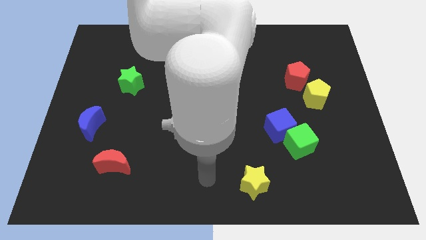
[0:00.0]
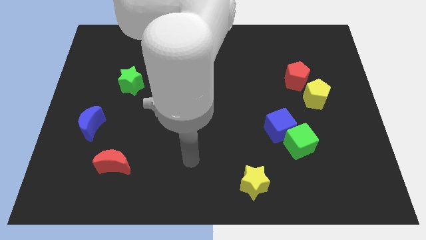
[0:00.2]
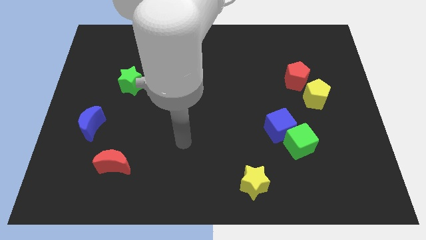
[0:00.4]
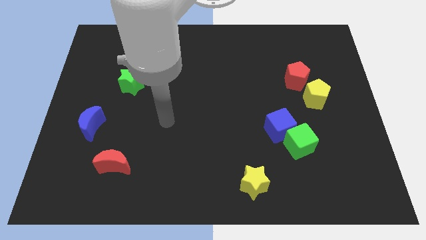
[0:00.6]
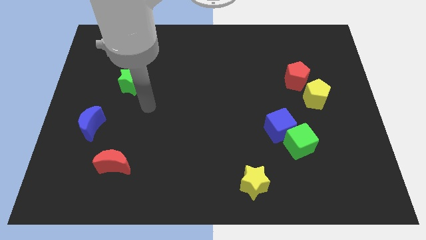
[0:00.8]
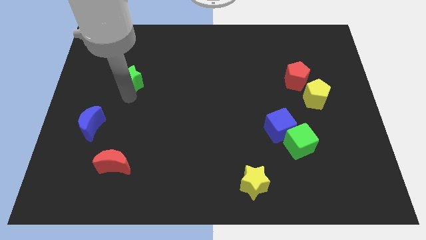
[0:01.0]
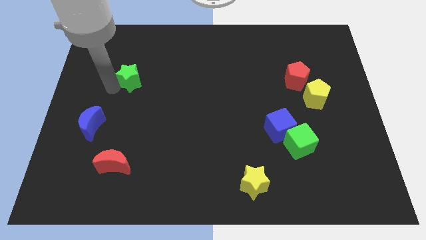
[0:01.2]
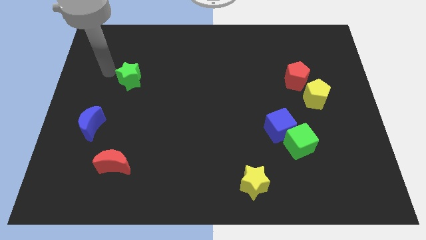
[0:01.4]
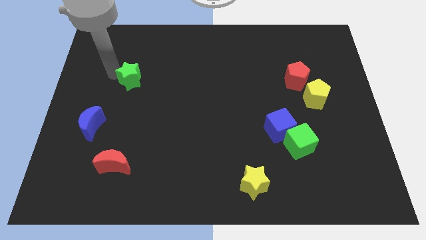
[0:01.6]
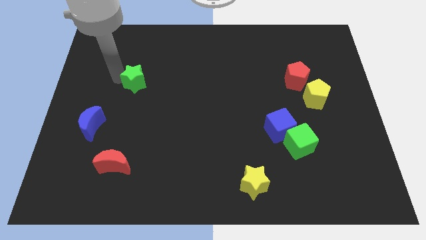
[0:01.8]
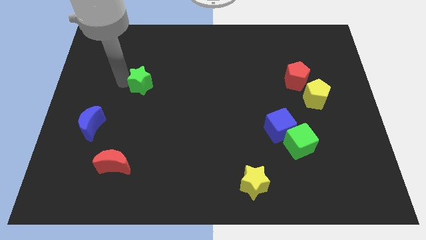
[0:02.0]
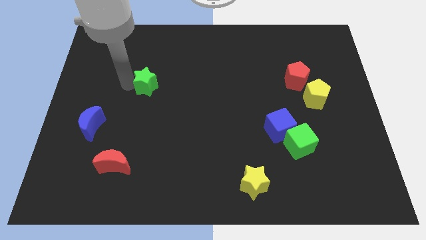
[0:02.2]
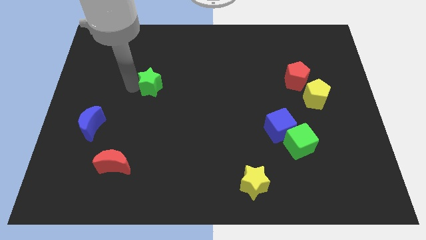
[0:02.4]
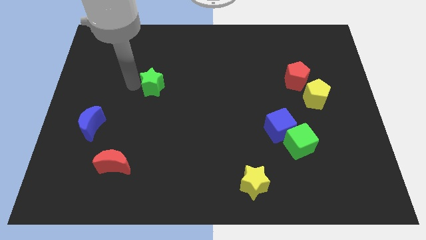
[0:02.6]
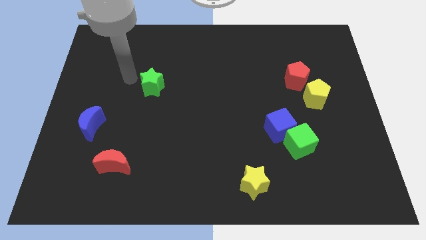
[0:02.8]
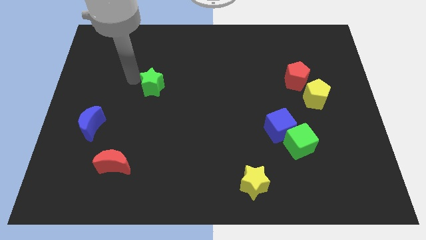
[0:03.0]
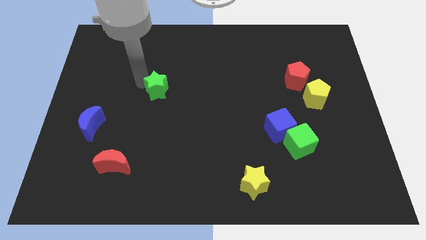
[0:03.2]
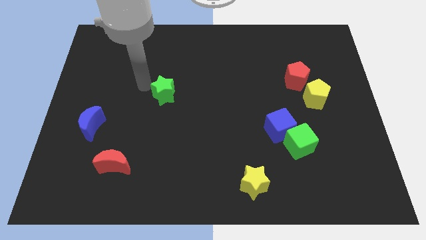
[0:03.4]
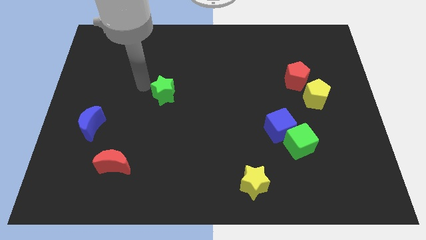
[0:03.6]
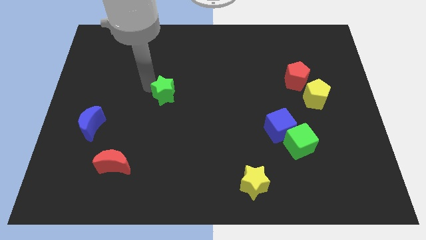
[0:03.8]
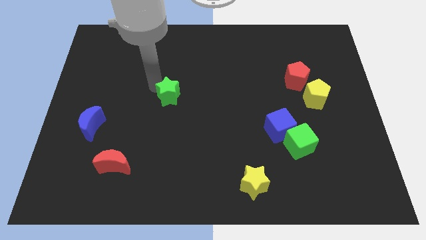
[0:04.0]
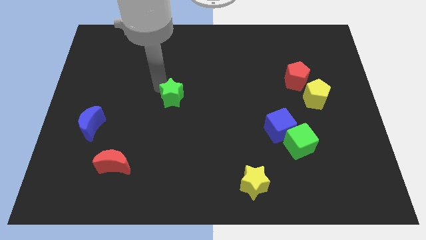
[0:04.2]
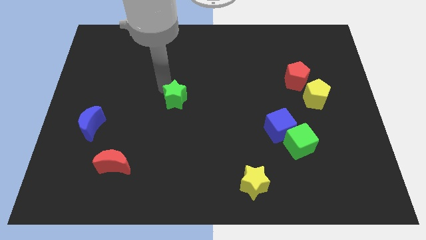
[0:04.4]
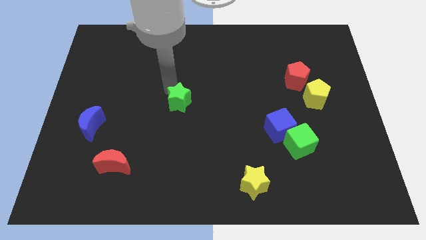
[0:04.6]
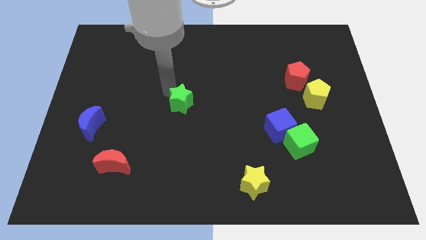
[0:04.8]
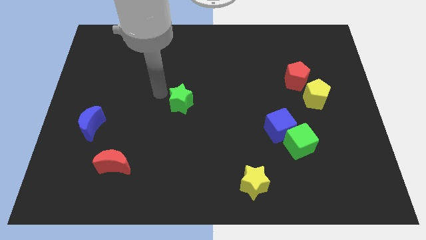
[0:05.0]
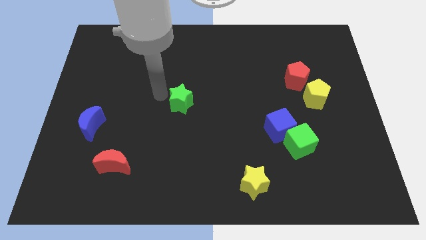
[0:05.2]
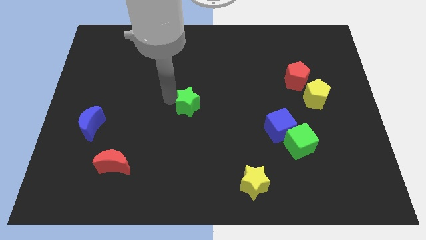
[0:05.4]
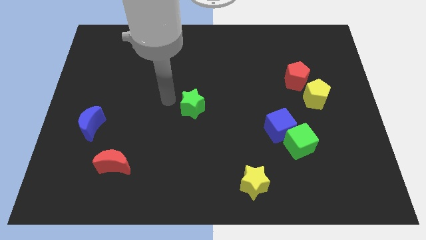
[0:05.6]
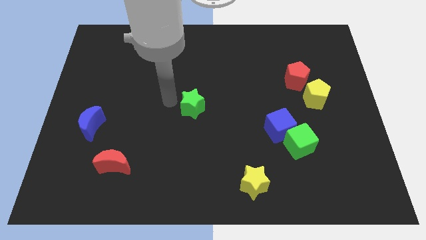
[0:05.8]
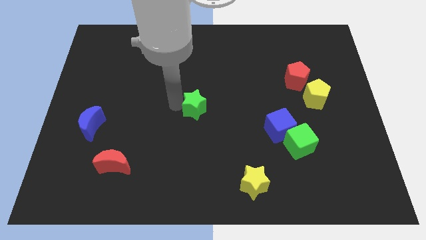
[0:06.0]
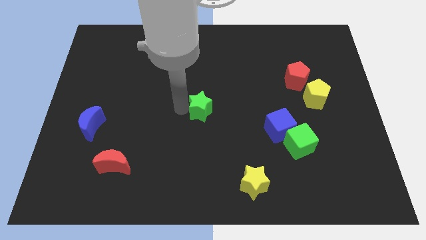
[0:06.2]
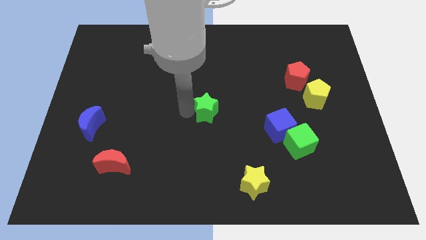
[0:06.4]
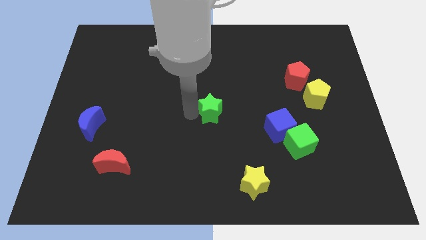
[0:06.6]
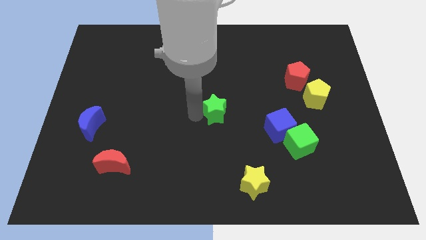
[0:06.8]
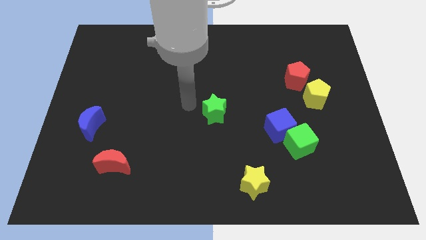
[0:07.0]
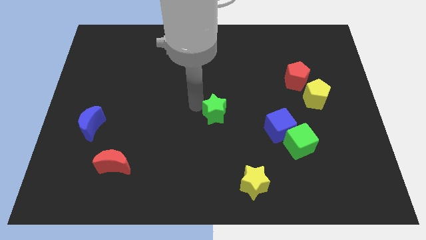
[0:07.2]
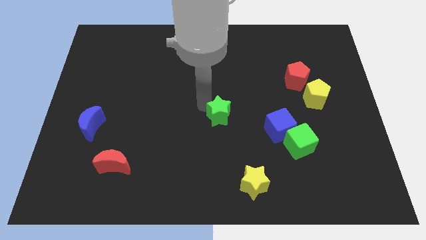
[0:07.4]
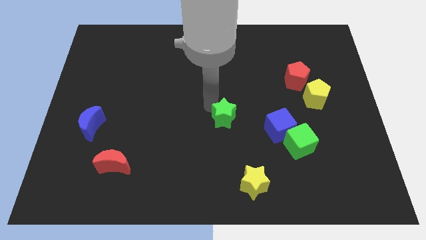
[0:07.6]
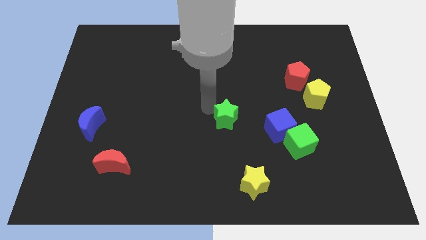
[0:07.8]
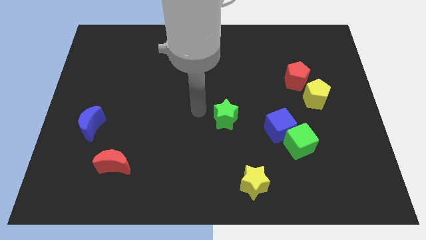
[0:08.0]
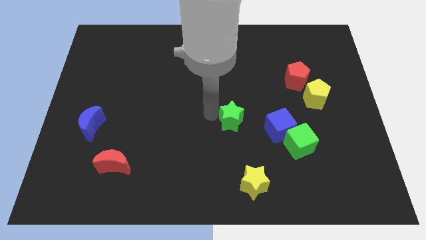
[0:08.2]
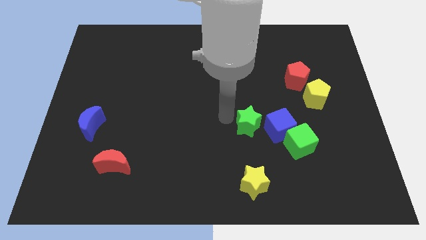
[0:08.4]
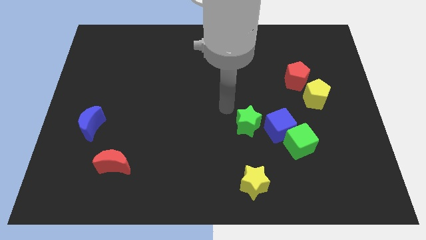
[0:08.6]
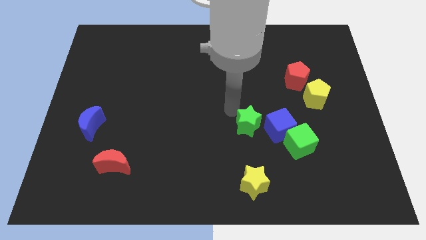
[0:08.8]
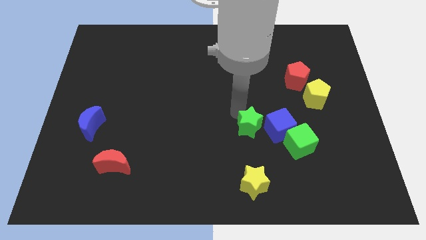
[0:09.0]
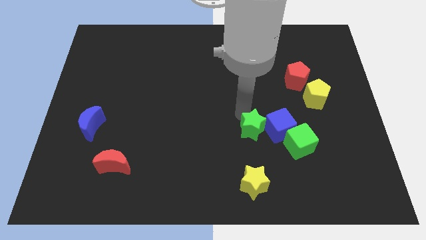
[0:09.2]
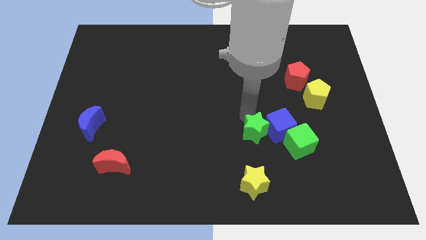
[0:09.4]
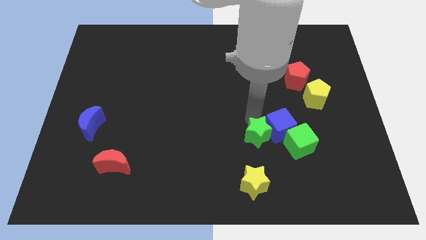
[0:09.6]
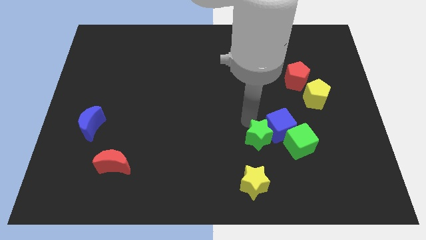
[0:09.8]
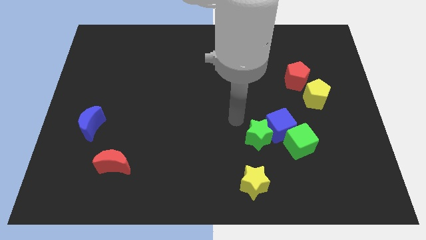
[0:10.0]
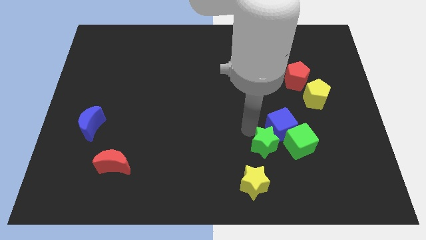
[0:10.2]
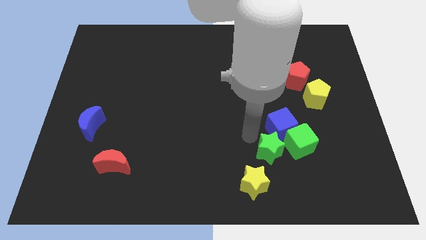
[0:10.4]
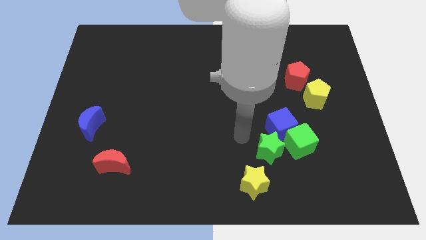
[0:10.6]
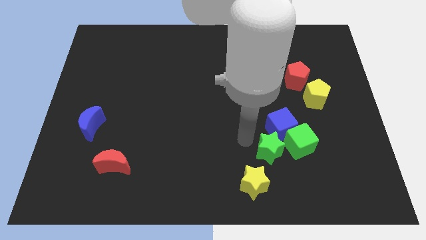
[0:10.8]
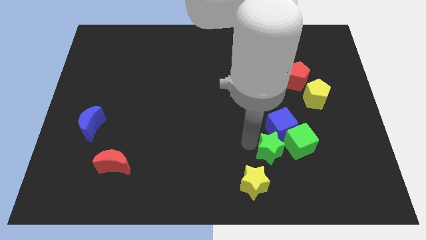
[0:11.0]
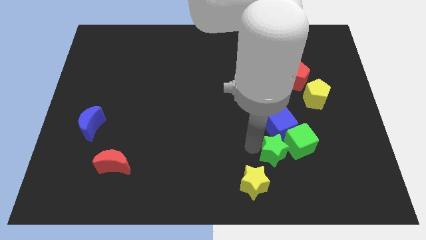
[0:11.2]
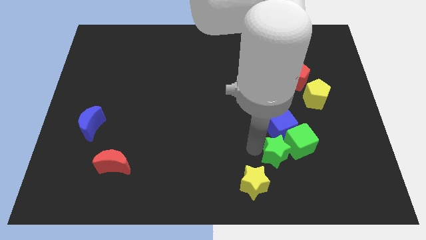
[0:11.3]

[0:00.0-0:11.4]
put the green star to the green cube

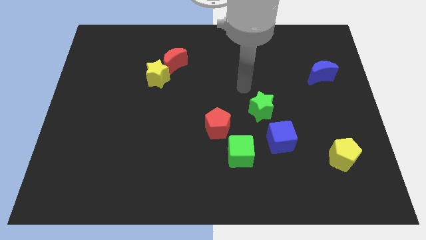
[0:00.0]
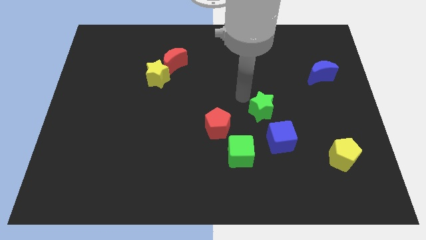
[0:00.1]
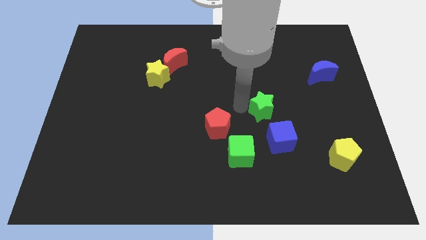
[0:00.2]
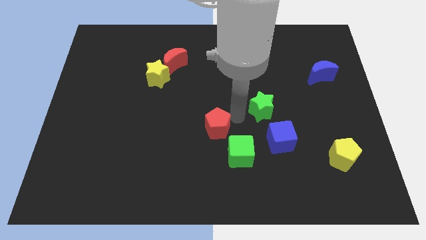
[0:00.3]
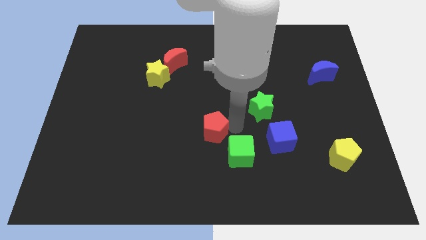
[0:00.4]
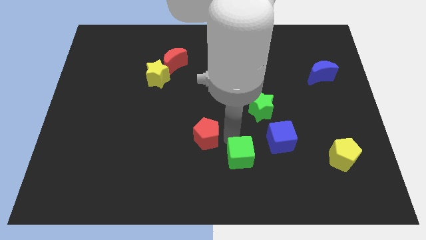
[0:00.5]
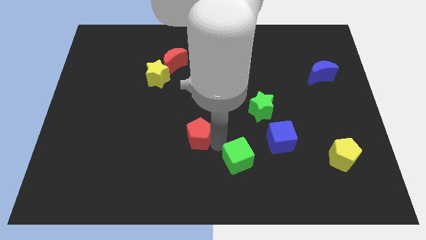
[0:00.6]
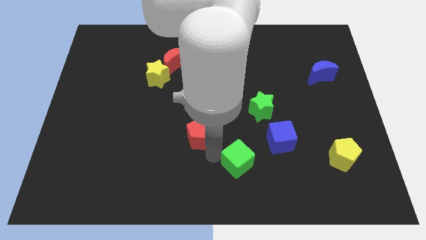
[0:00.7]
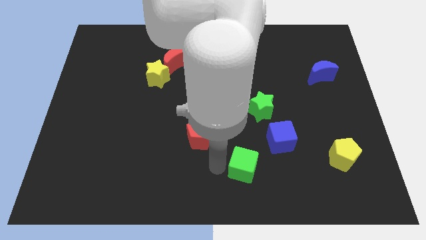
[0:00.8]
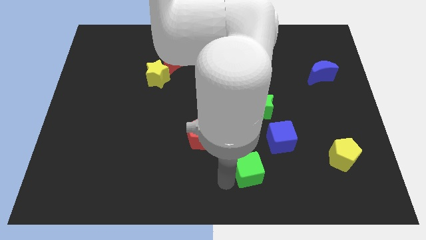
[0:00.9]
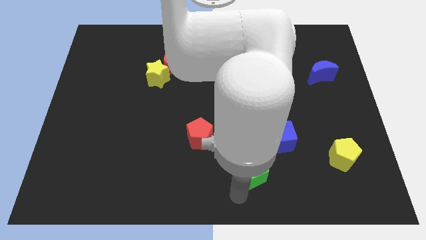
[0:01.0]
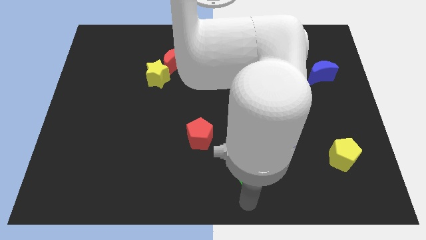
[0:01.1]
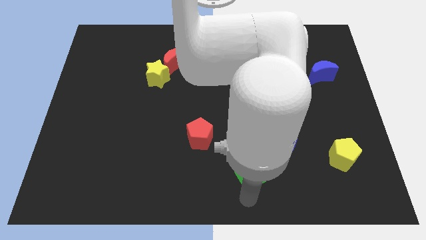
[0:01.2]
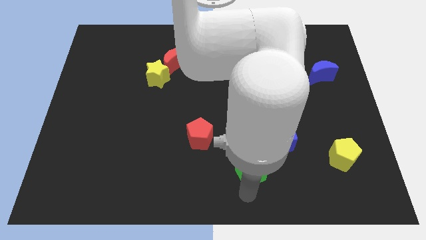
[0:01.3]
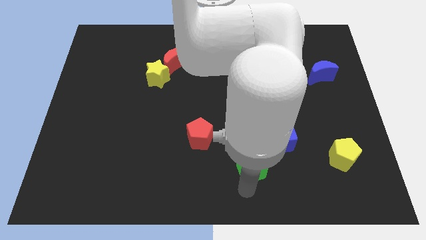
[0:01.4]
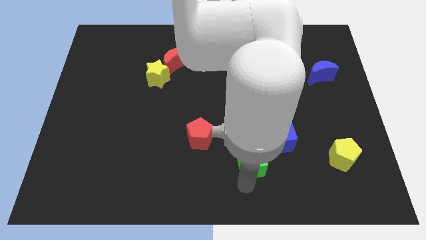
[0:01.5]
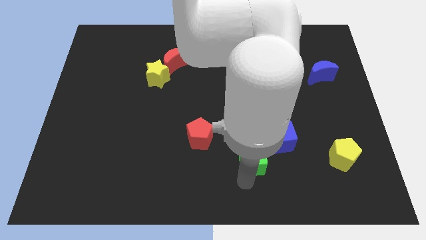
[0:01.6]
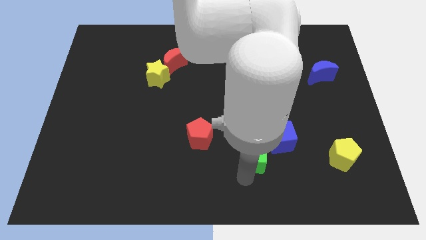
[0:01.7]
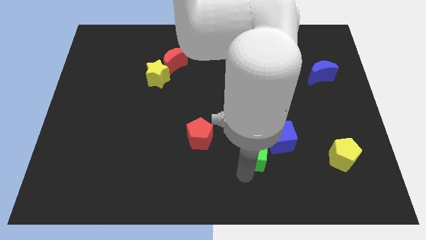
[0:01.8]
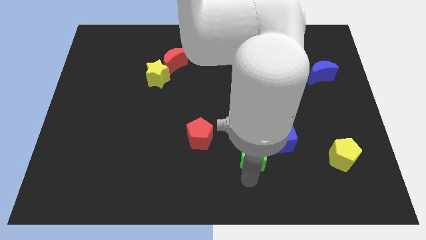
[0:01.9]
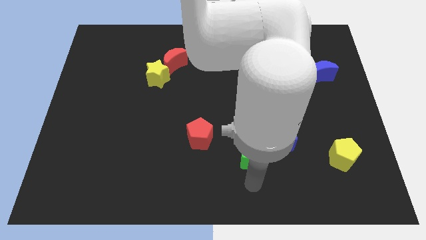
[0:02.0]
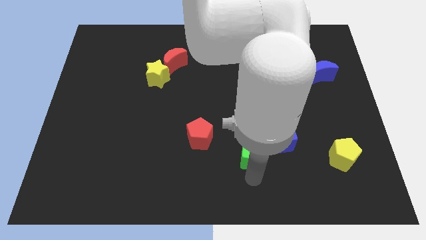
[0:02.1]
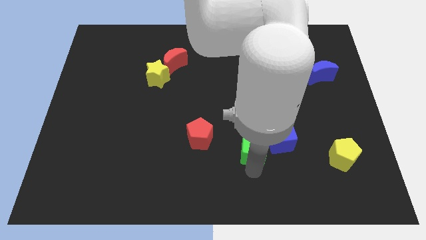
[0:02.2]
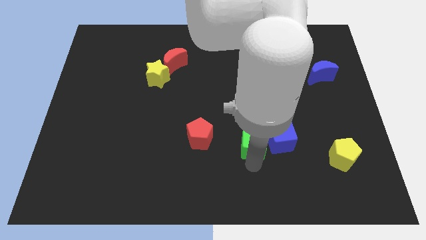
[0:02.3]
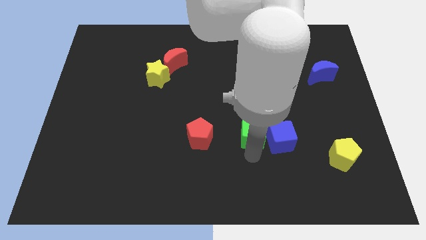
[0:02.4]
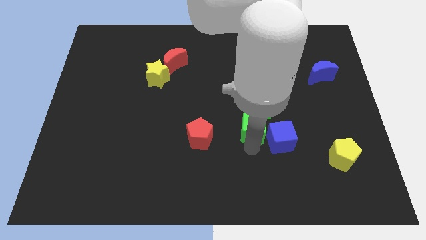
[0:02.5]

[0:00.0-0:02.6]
push the green cube next to the green star
